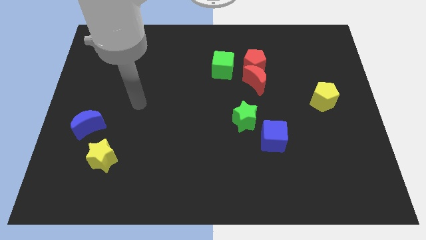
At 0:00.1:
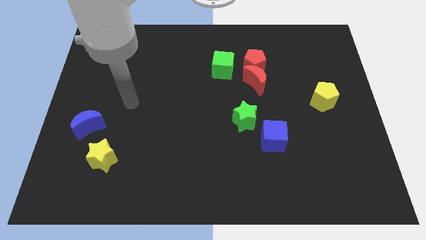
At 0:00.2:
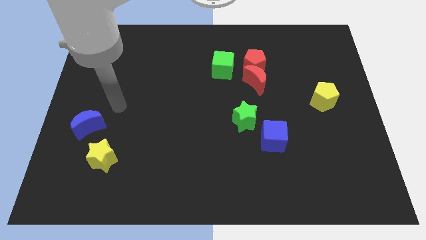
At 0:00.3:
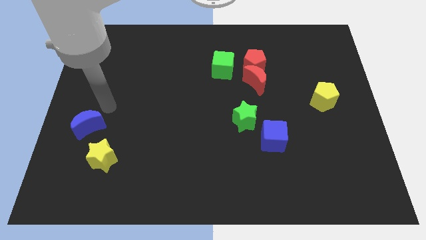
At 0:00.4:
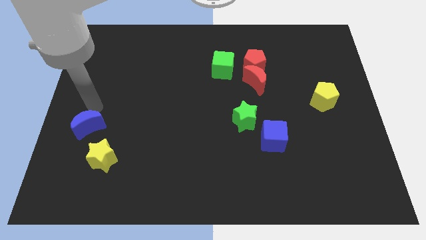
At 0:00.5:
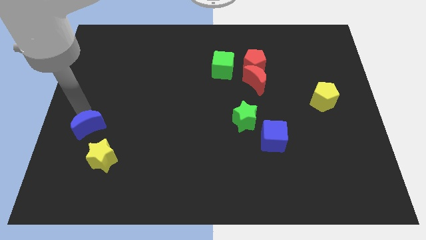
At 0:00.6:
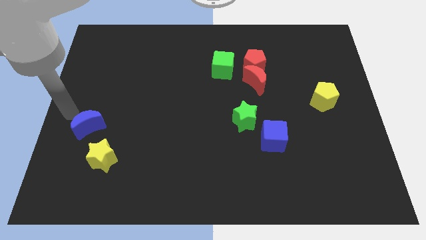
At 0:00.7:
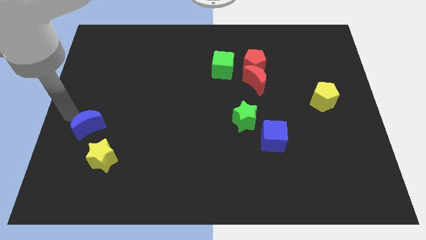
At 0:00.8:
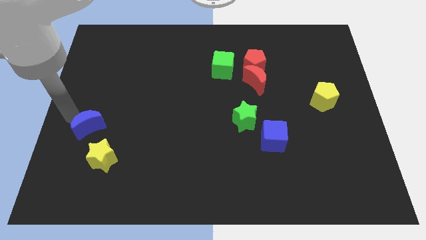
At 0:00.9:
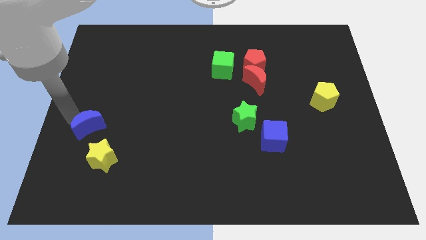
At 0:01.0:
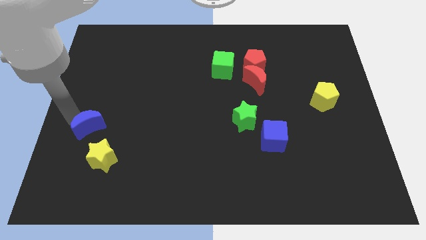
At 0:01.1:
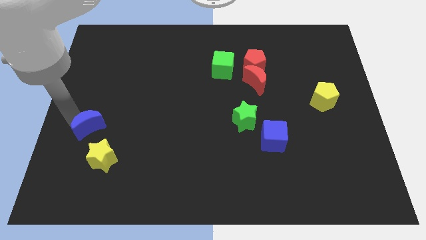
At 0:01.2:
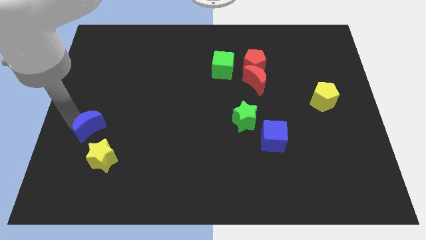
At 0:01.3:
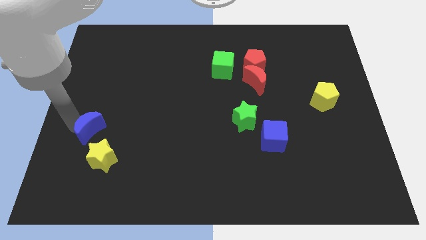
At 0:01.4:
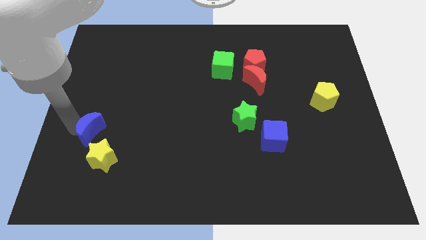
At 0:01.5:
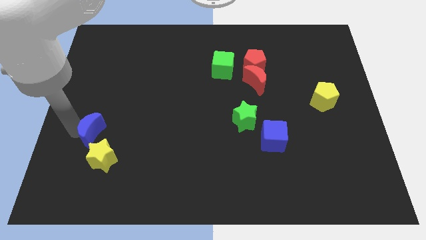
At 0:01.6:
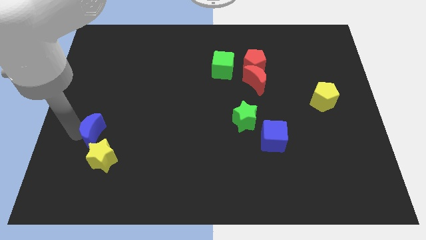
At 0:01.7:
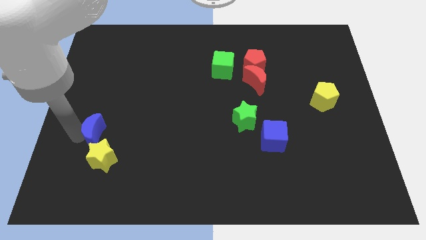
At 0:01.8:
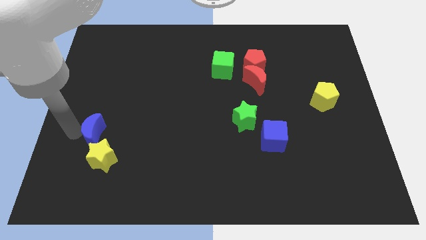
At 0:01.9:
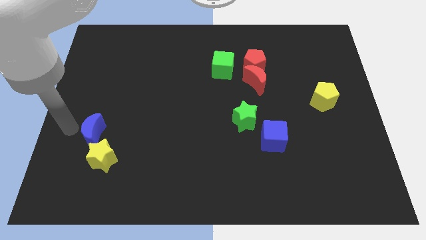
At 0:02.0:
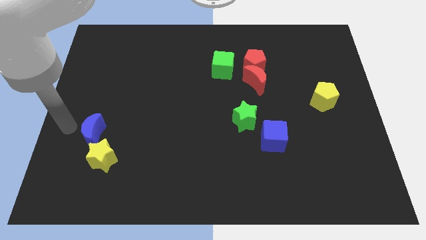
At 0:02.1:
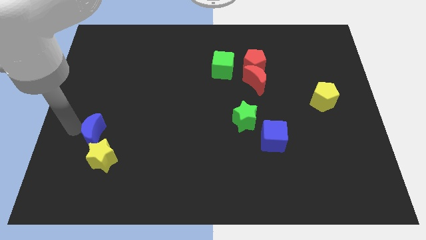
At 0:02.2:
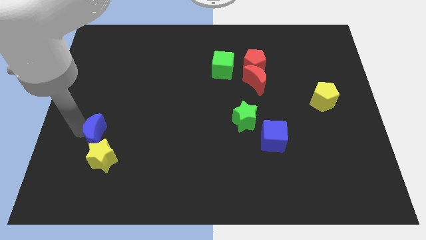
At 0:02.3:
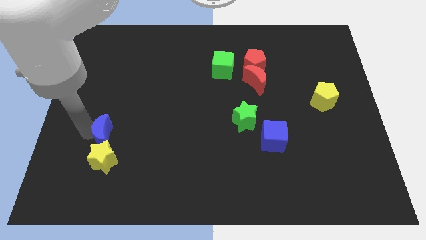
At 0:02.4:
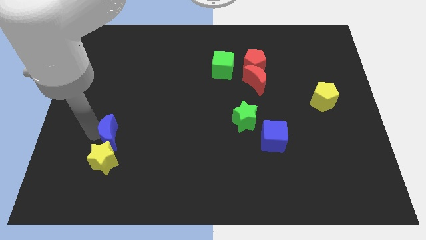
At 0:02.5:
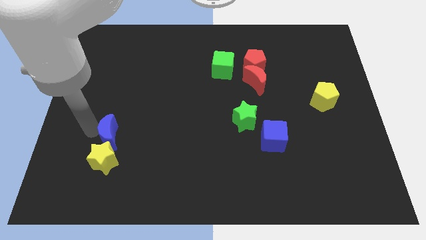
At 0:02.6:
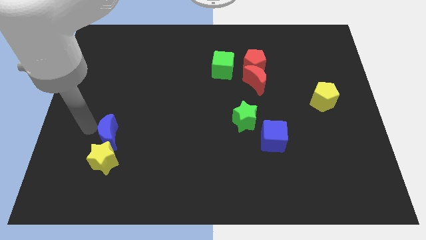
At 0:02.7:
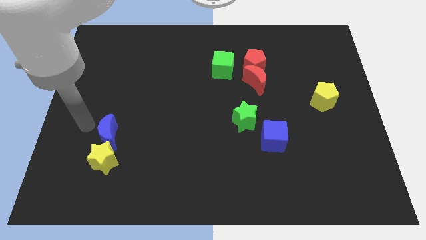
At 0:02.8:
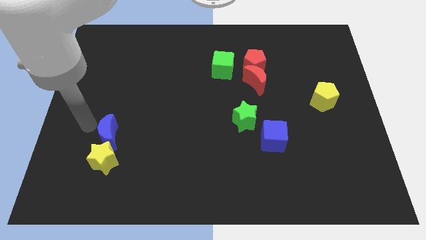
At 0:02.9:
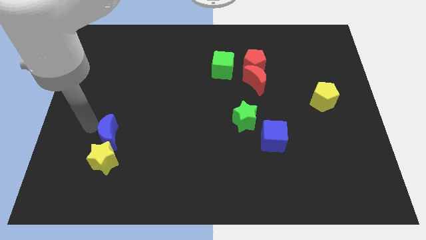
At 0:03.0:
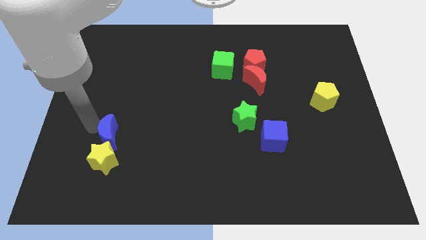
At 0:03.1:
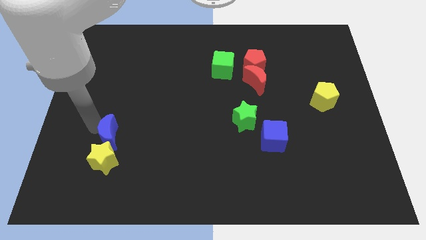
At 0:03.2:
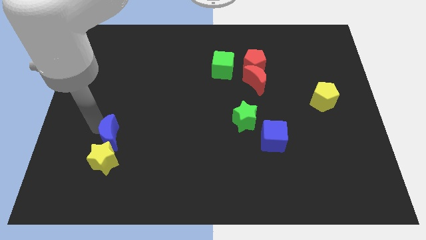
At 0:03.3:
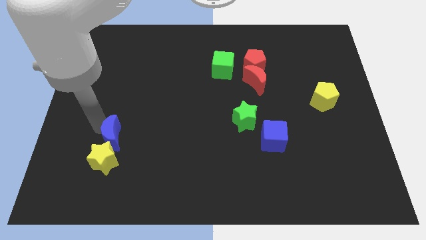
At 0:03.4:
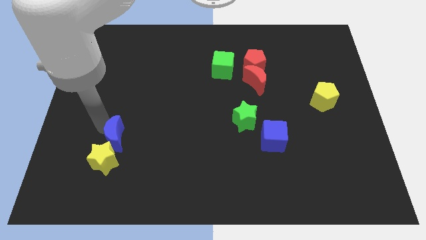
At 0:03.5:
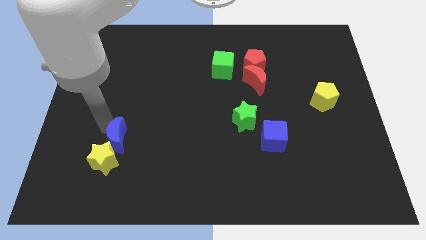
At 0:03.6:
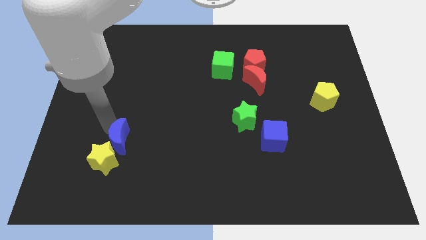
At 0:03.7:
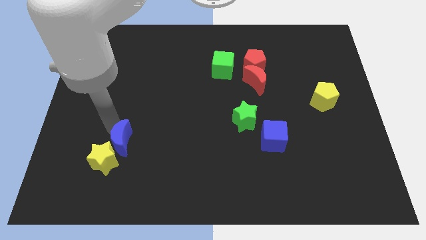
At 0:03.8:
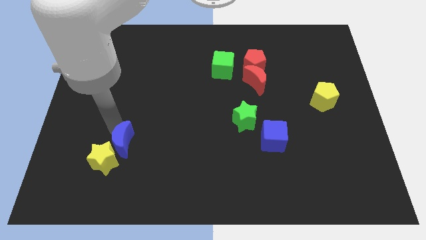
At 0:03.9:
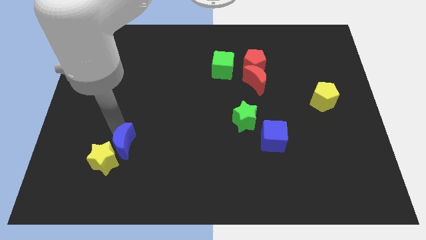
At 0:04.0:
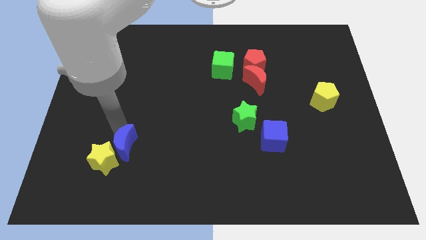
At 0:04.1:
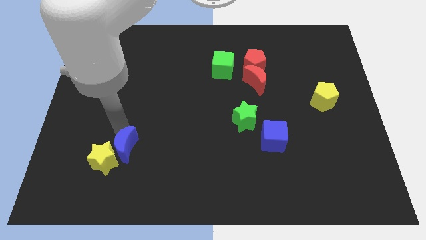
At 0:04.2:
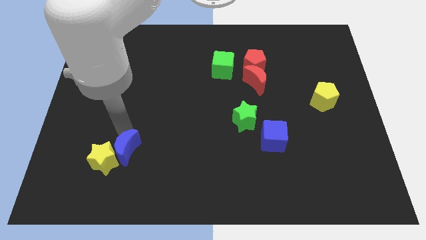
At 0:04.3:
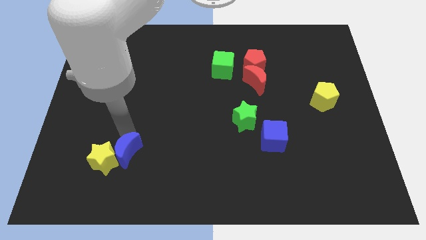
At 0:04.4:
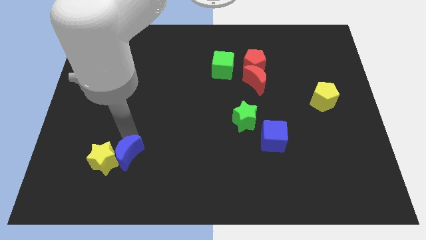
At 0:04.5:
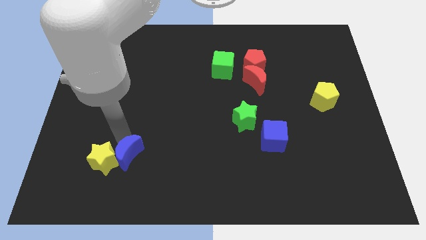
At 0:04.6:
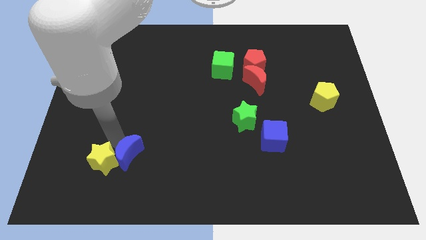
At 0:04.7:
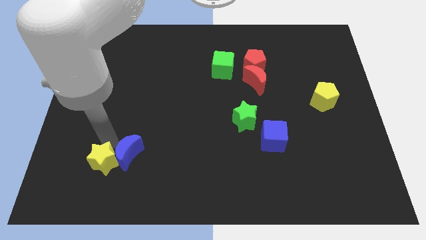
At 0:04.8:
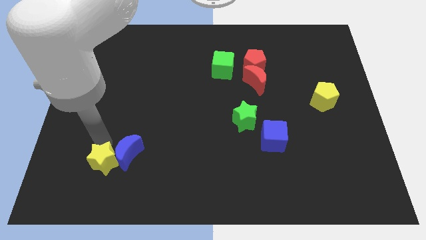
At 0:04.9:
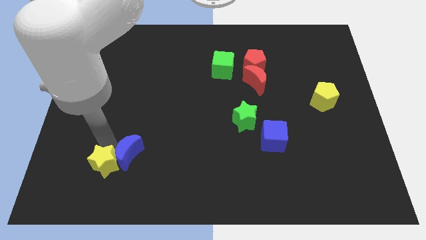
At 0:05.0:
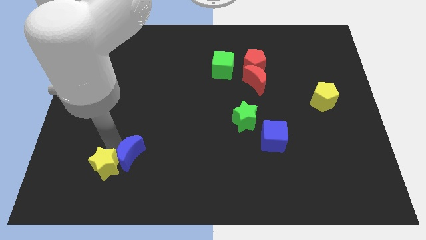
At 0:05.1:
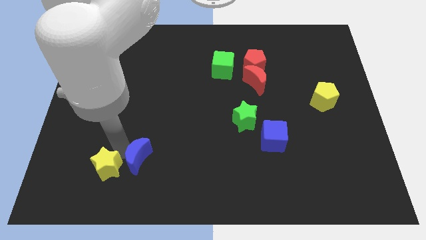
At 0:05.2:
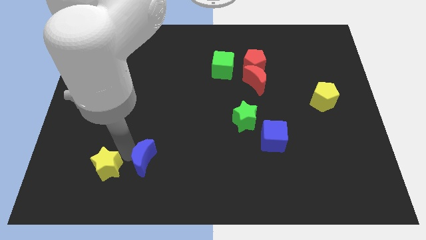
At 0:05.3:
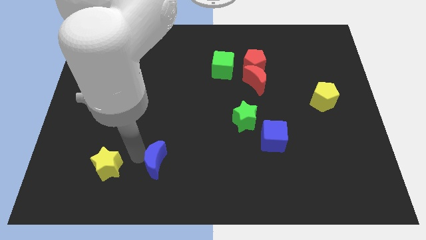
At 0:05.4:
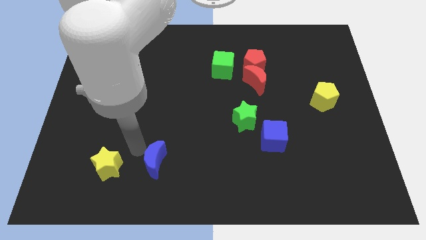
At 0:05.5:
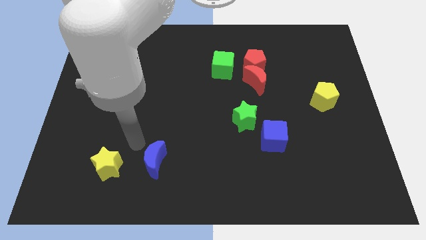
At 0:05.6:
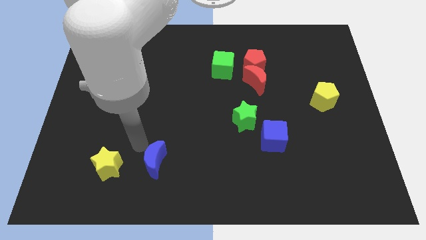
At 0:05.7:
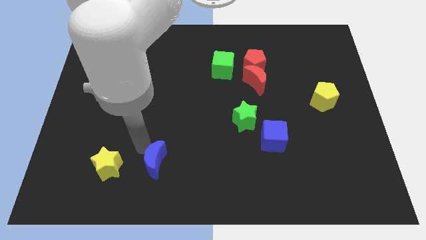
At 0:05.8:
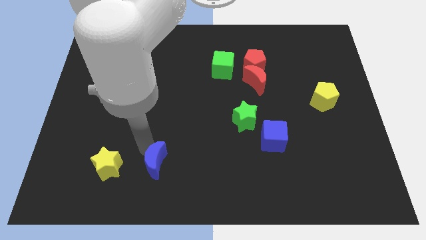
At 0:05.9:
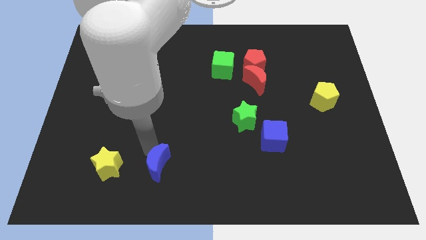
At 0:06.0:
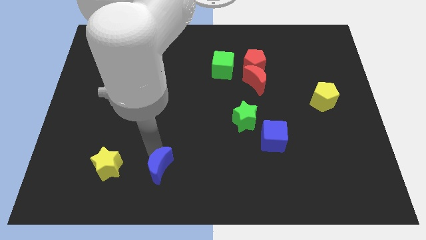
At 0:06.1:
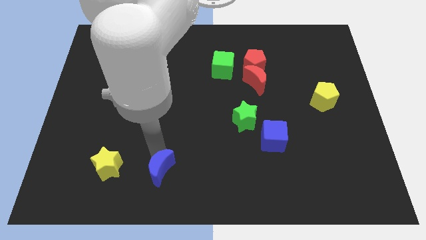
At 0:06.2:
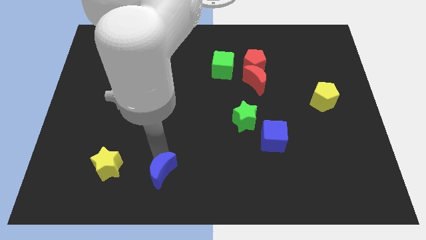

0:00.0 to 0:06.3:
put the blue moon to the bottom

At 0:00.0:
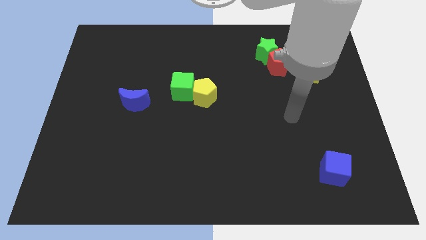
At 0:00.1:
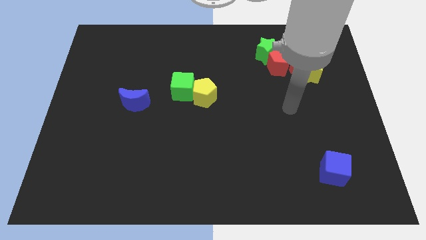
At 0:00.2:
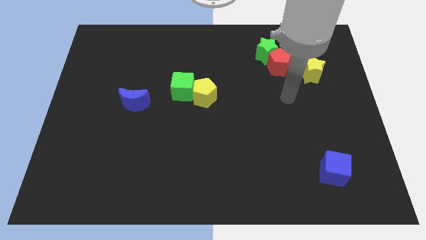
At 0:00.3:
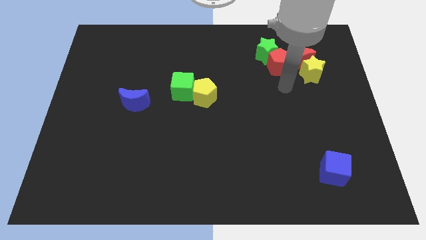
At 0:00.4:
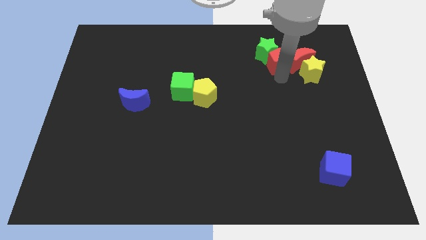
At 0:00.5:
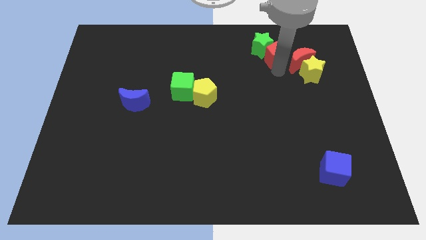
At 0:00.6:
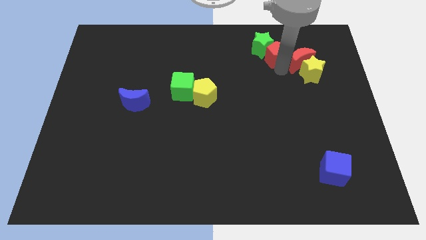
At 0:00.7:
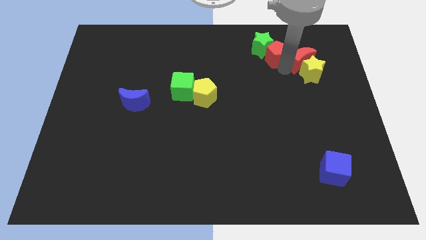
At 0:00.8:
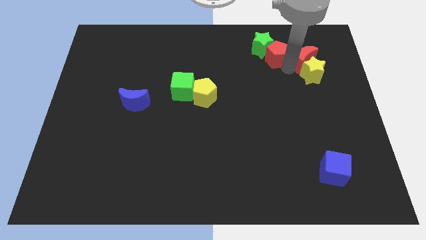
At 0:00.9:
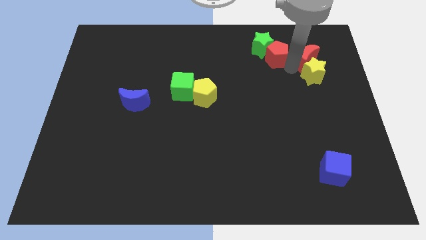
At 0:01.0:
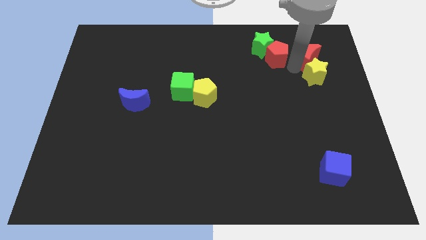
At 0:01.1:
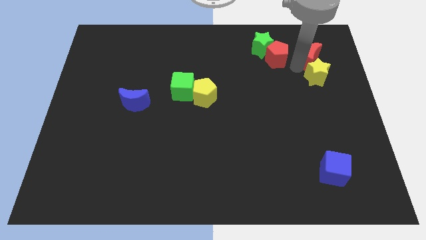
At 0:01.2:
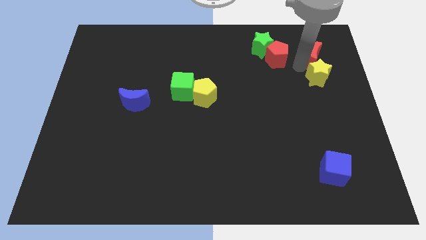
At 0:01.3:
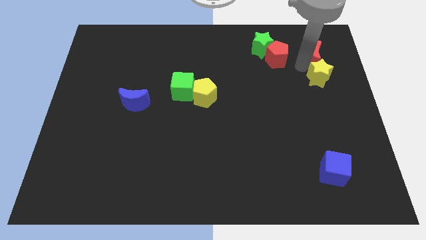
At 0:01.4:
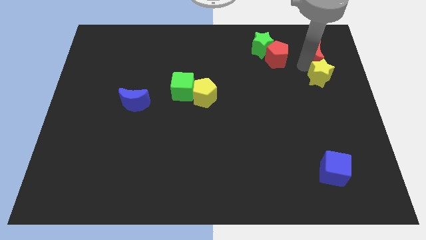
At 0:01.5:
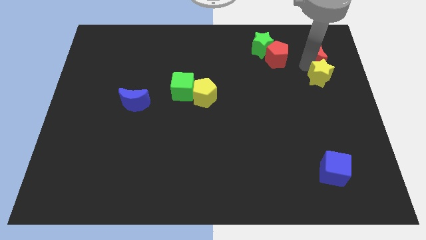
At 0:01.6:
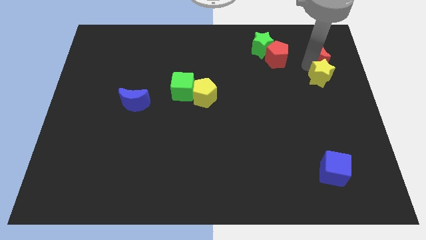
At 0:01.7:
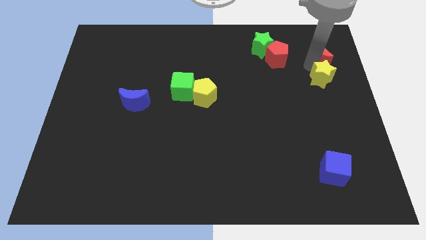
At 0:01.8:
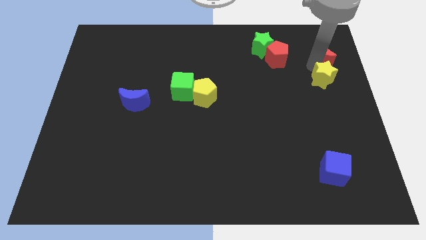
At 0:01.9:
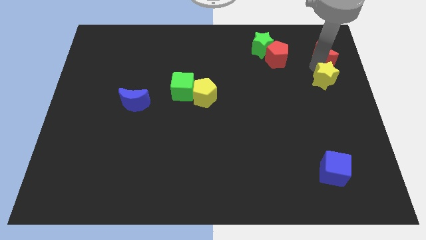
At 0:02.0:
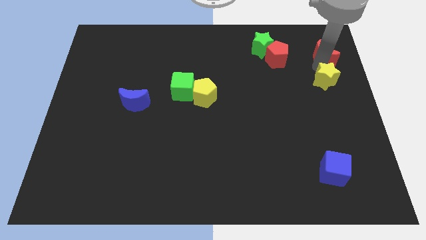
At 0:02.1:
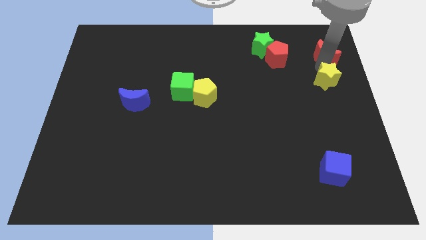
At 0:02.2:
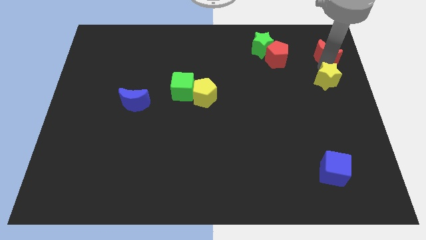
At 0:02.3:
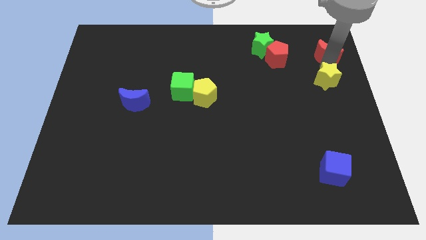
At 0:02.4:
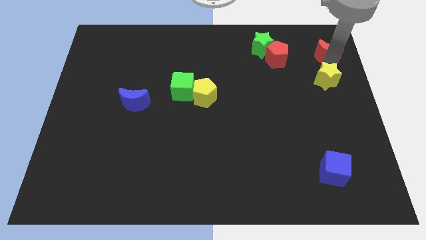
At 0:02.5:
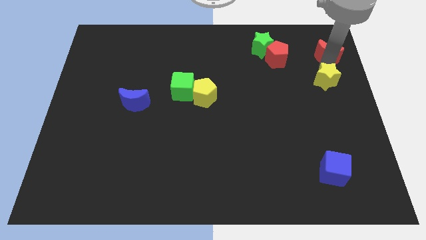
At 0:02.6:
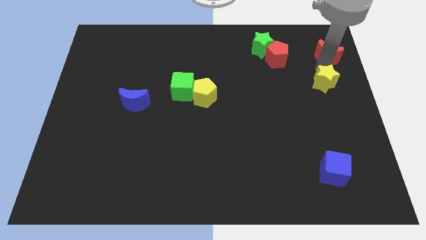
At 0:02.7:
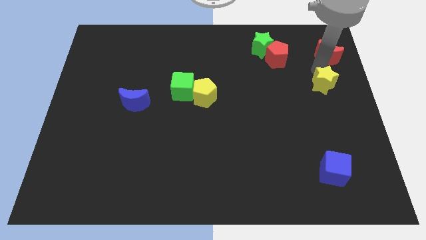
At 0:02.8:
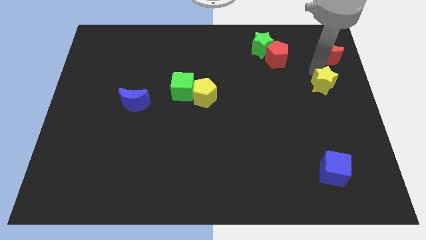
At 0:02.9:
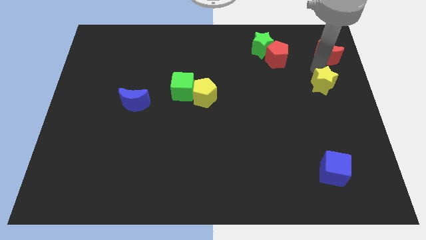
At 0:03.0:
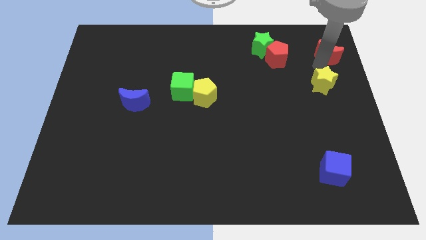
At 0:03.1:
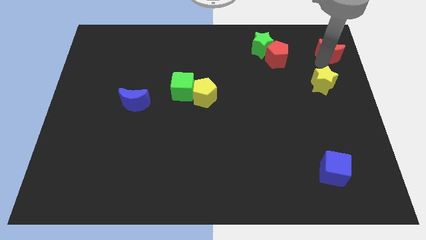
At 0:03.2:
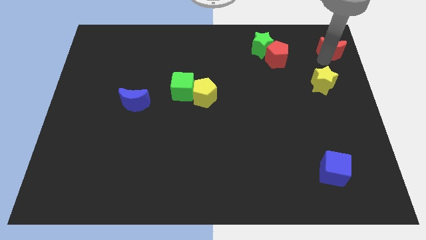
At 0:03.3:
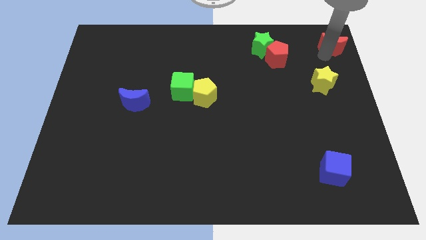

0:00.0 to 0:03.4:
slide the red moon to the top right corner
